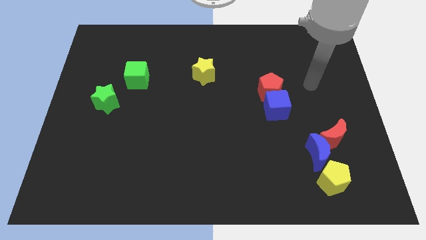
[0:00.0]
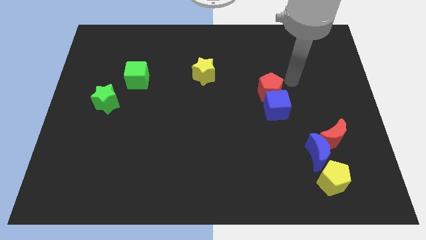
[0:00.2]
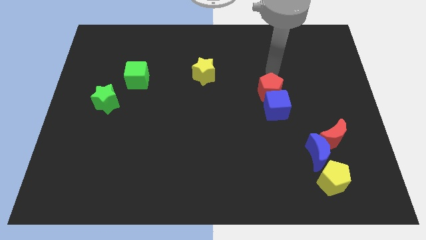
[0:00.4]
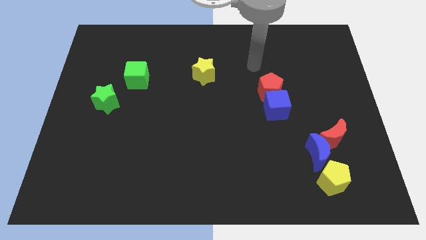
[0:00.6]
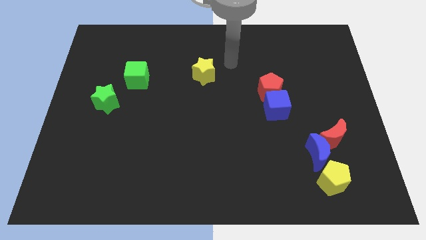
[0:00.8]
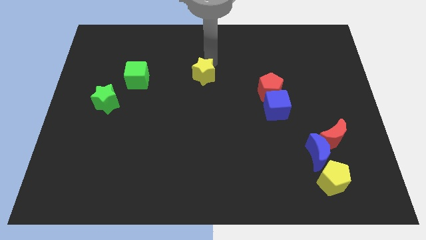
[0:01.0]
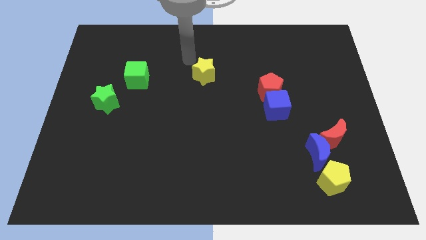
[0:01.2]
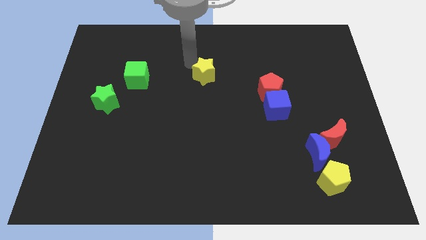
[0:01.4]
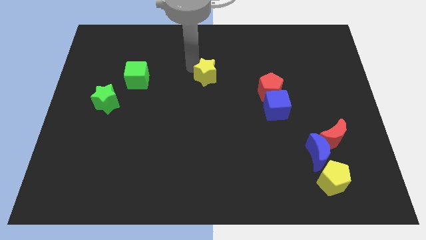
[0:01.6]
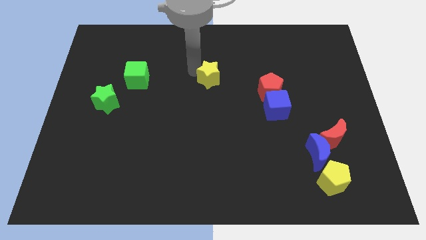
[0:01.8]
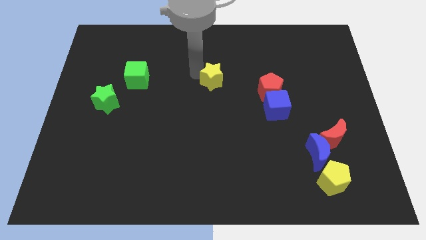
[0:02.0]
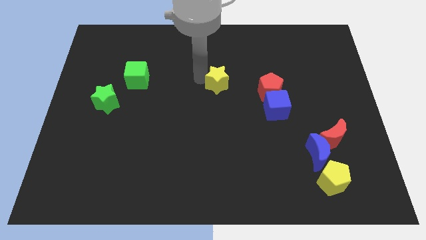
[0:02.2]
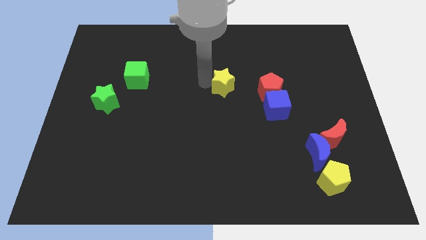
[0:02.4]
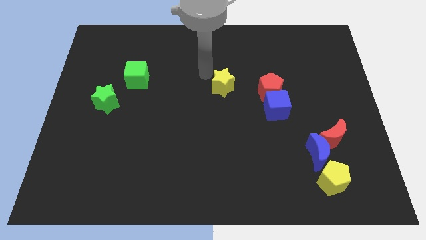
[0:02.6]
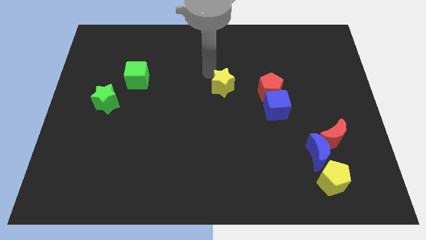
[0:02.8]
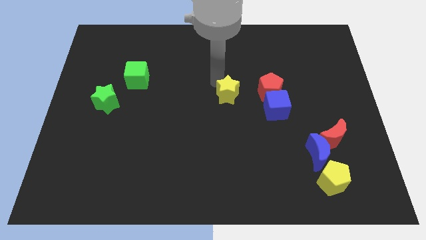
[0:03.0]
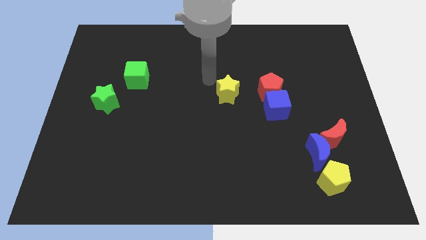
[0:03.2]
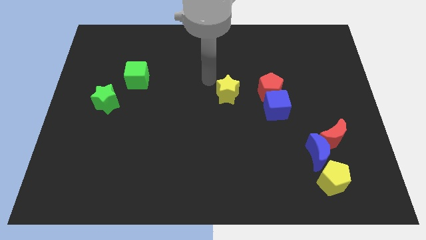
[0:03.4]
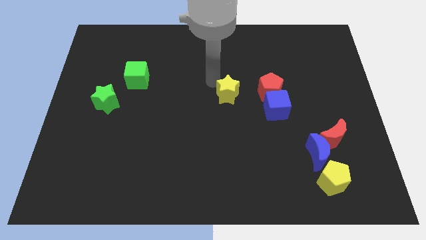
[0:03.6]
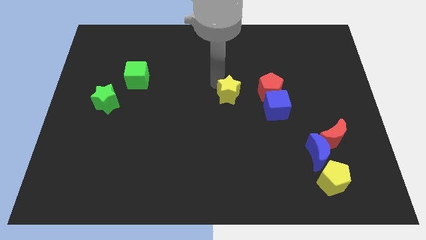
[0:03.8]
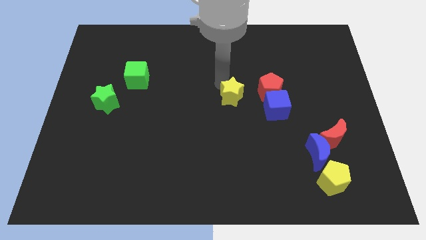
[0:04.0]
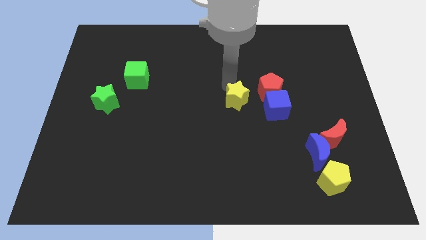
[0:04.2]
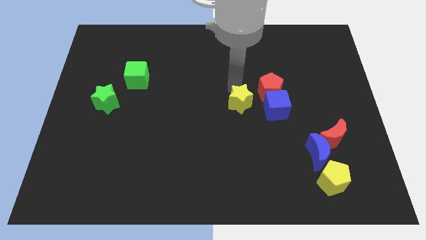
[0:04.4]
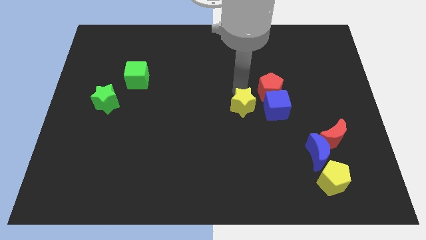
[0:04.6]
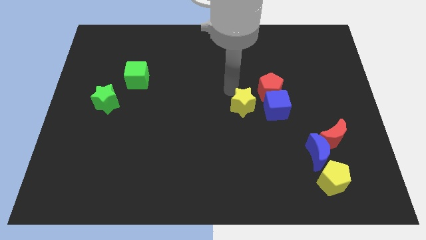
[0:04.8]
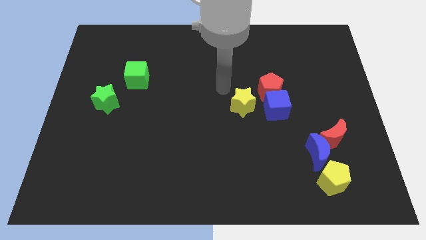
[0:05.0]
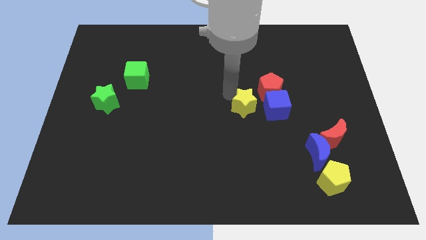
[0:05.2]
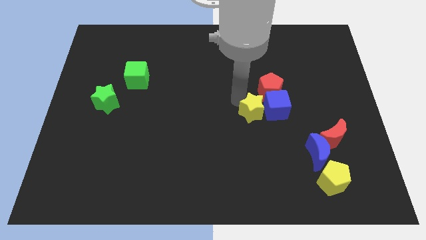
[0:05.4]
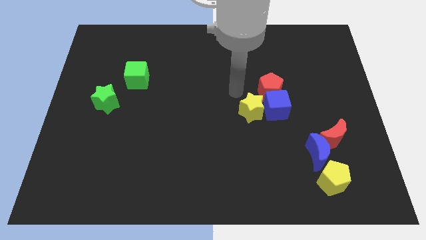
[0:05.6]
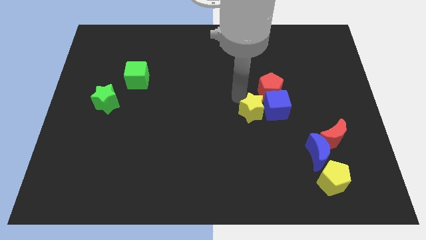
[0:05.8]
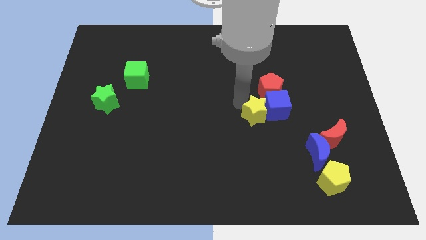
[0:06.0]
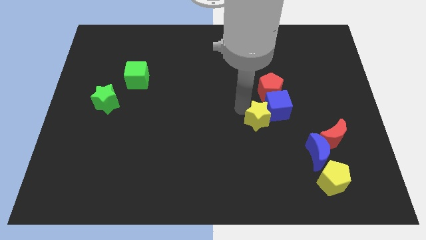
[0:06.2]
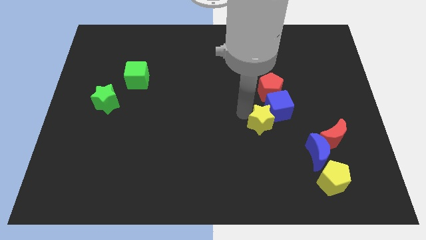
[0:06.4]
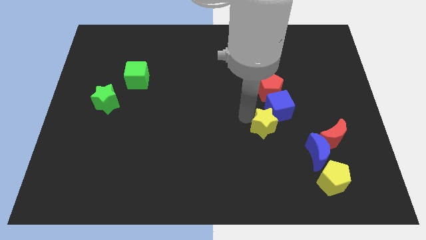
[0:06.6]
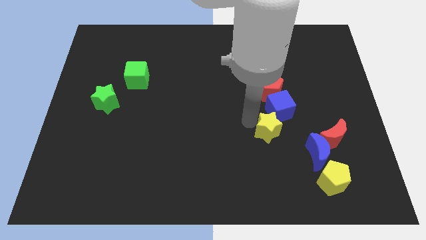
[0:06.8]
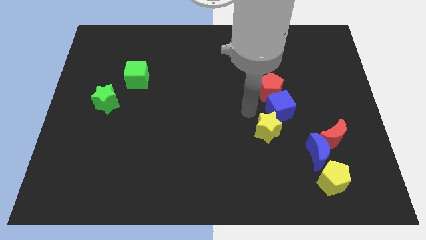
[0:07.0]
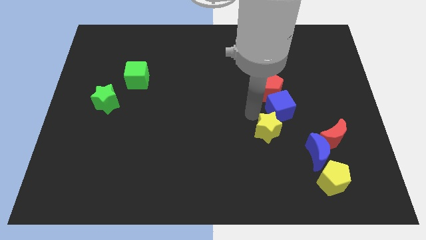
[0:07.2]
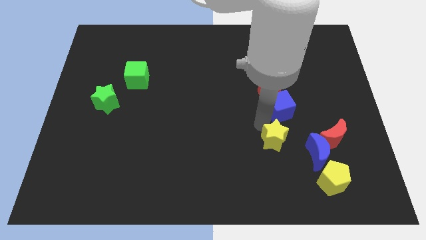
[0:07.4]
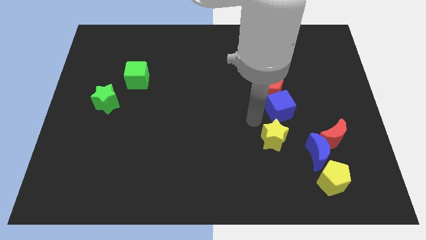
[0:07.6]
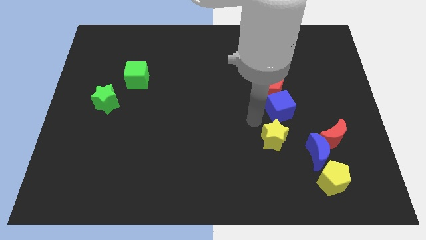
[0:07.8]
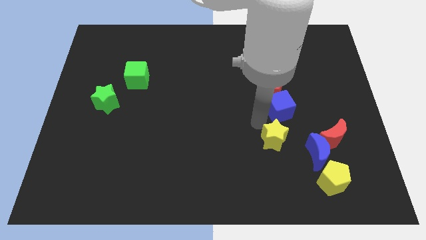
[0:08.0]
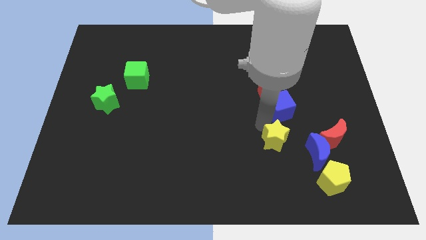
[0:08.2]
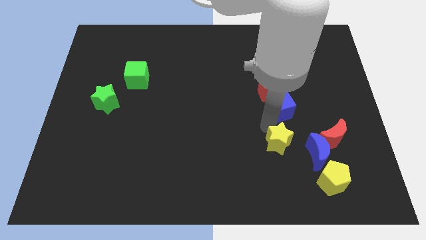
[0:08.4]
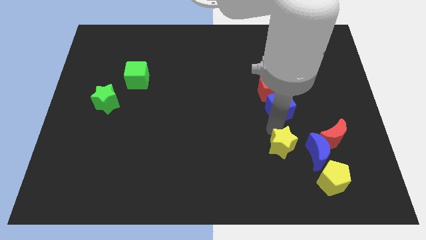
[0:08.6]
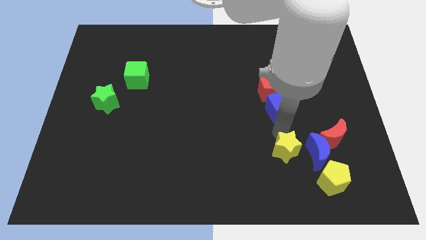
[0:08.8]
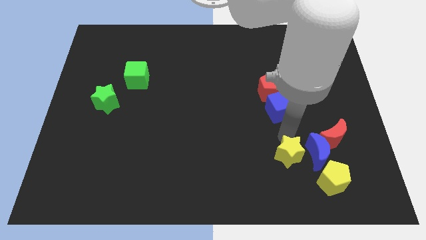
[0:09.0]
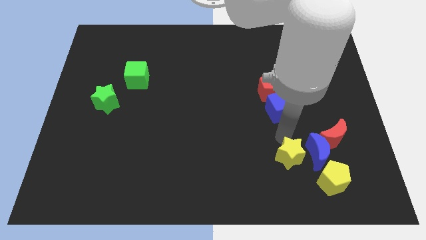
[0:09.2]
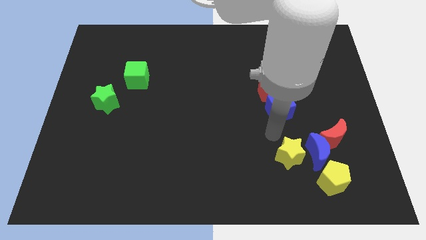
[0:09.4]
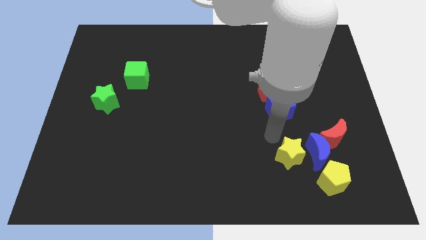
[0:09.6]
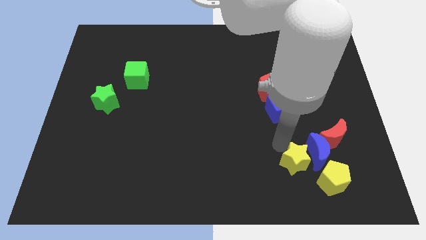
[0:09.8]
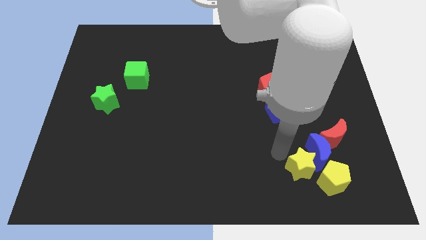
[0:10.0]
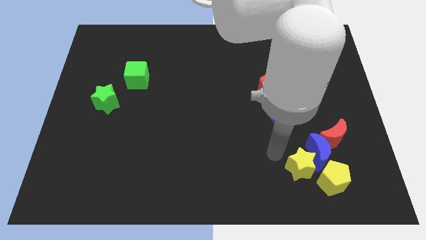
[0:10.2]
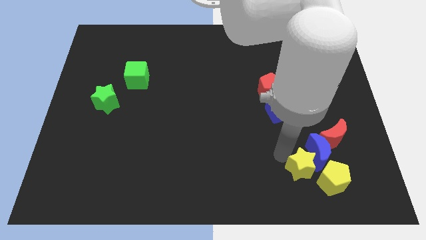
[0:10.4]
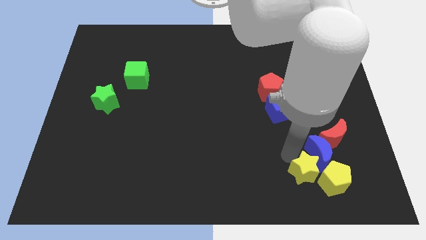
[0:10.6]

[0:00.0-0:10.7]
put the yellow star next to the yellow pentagon
